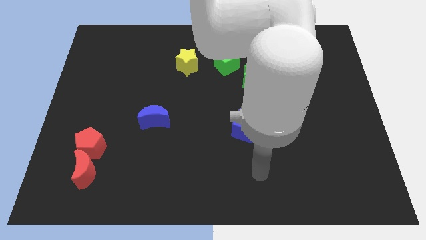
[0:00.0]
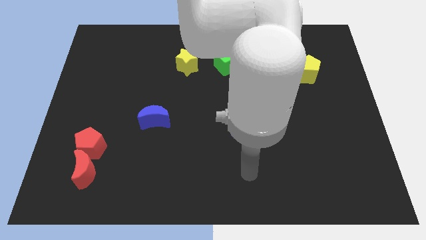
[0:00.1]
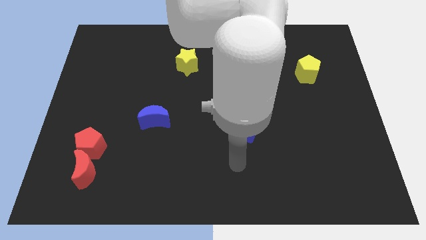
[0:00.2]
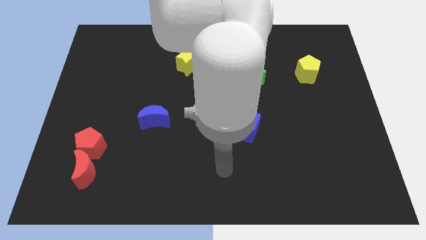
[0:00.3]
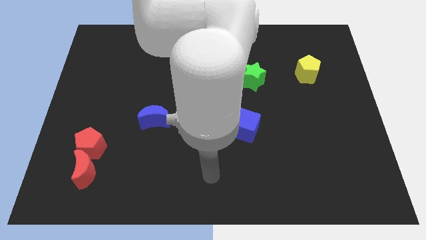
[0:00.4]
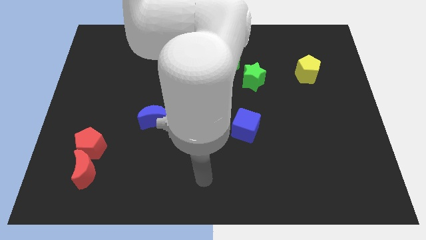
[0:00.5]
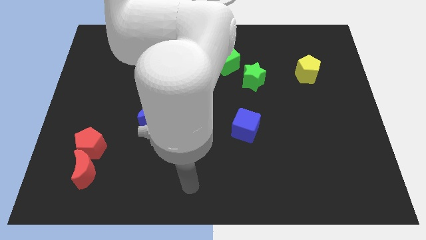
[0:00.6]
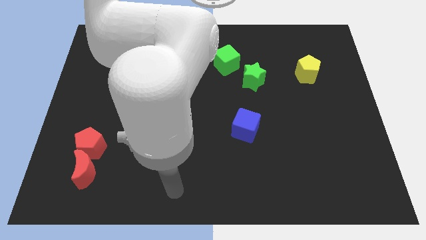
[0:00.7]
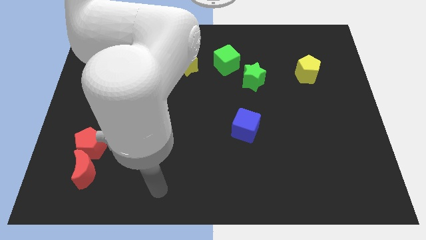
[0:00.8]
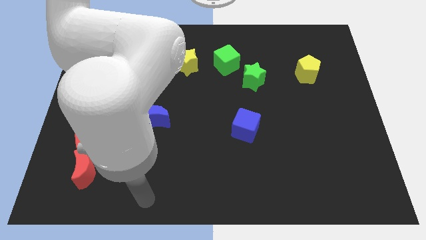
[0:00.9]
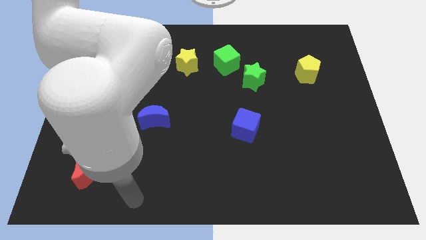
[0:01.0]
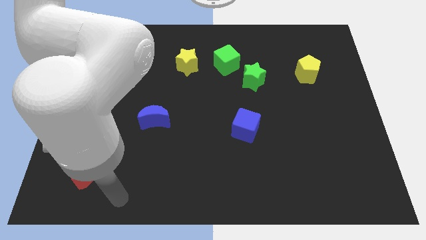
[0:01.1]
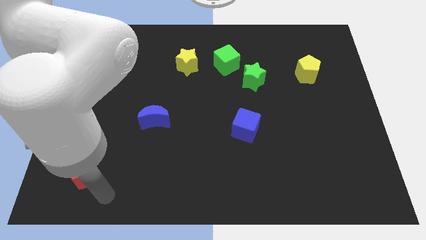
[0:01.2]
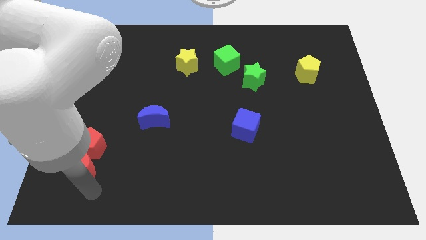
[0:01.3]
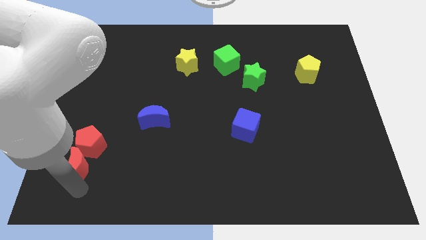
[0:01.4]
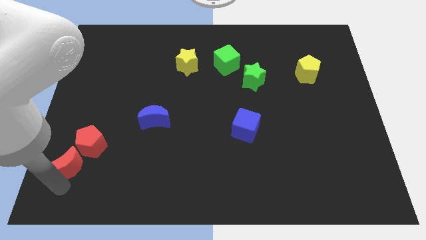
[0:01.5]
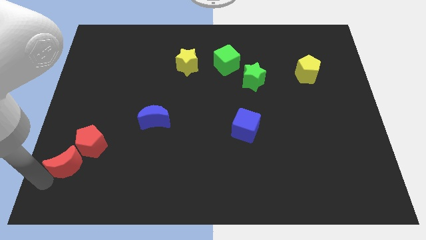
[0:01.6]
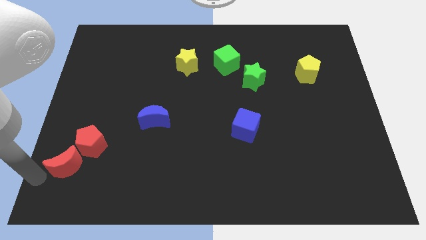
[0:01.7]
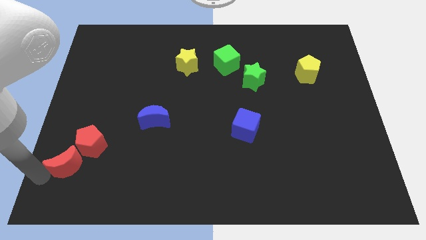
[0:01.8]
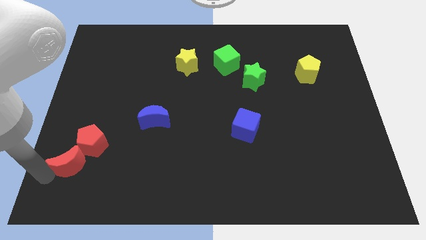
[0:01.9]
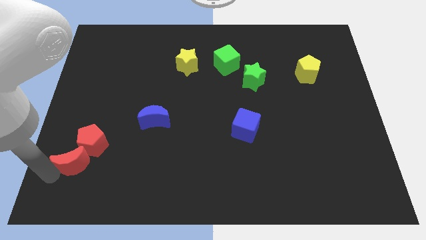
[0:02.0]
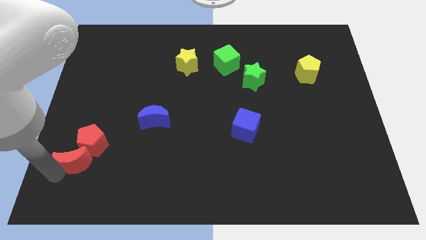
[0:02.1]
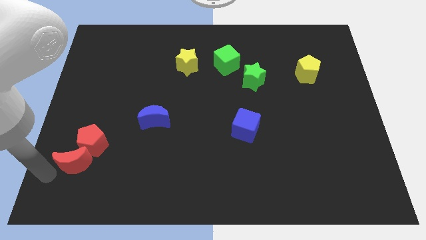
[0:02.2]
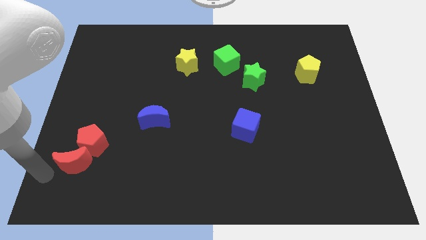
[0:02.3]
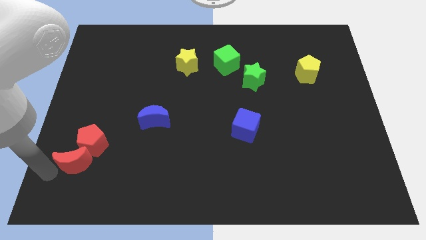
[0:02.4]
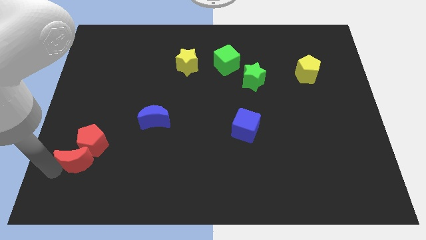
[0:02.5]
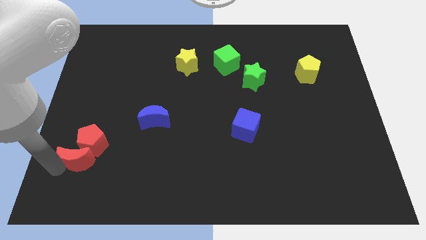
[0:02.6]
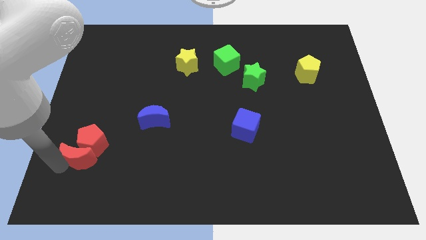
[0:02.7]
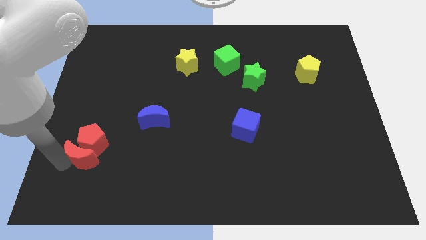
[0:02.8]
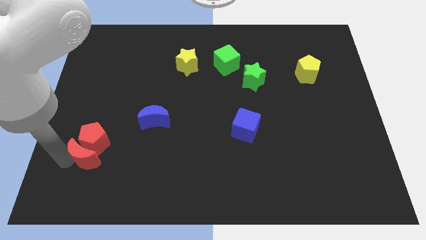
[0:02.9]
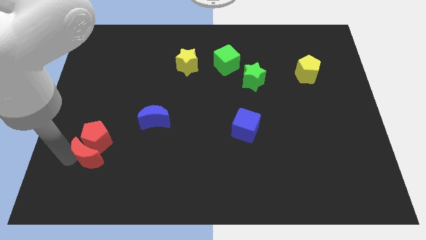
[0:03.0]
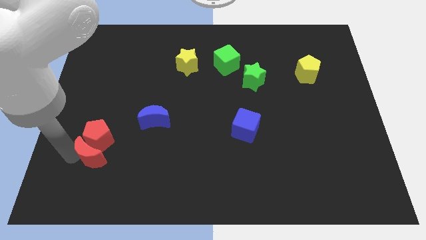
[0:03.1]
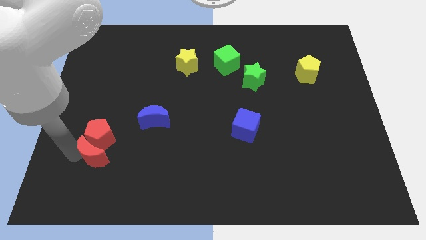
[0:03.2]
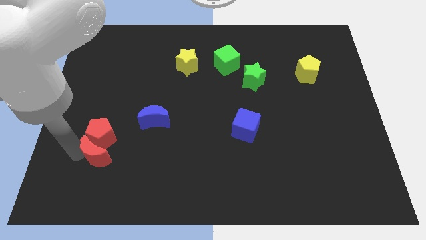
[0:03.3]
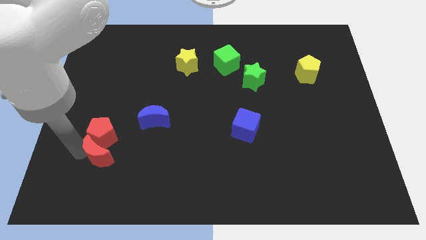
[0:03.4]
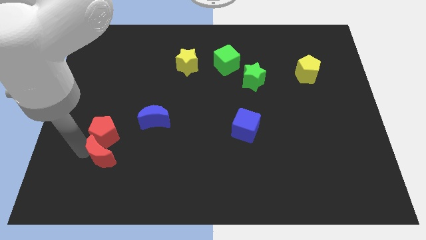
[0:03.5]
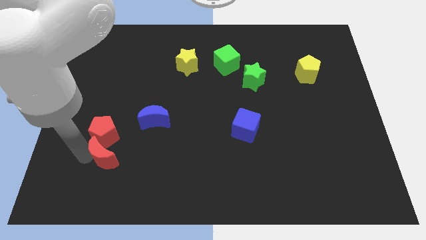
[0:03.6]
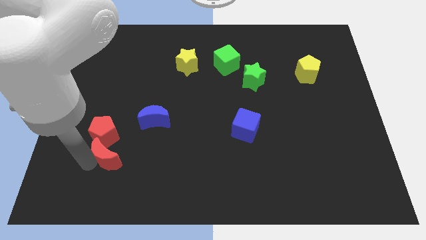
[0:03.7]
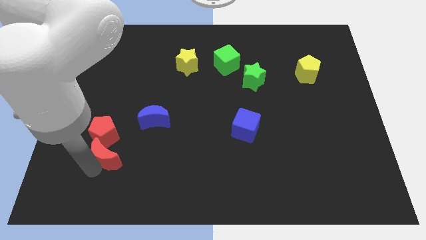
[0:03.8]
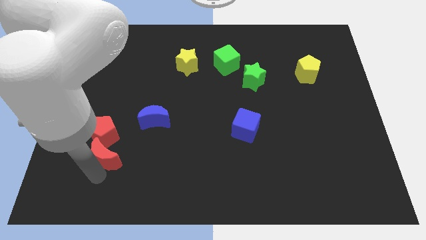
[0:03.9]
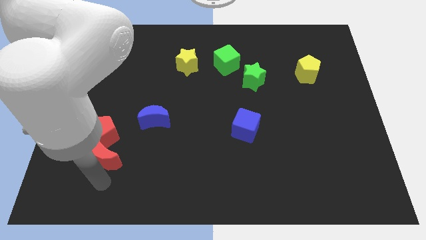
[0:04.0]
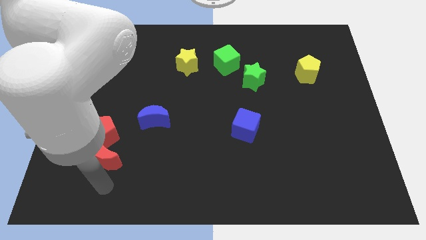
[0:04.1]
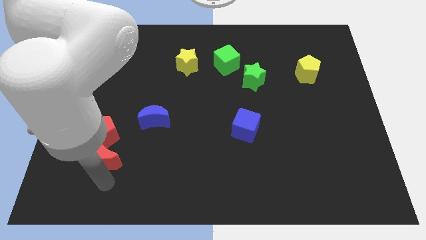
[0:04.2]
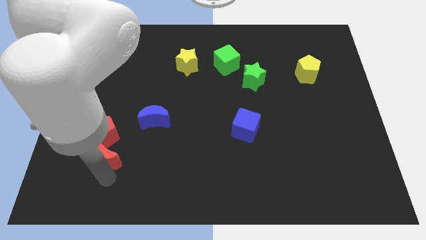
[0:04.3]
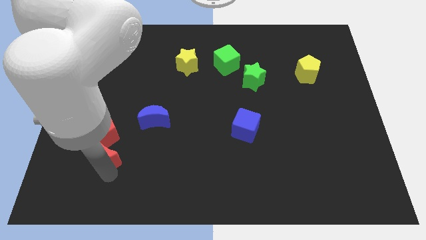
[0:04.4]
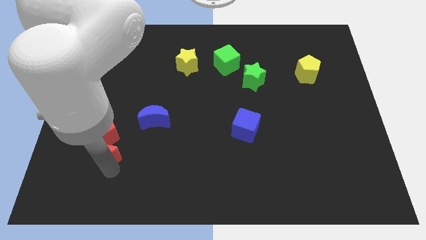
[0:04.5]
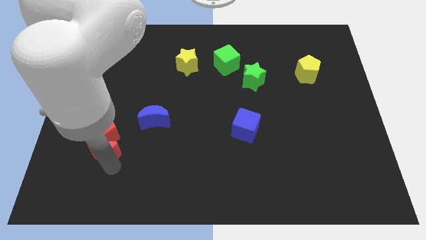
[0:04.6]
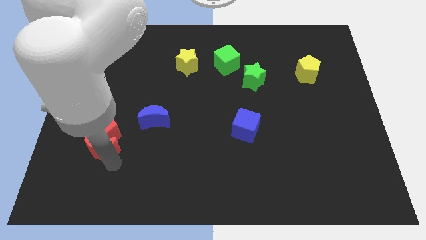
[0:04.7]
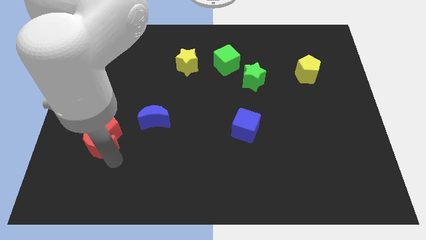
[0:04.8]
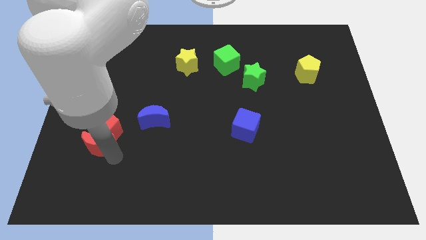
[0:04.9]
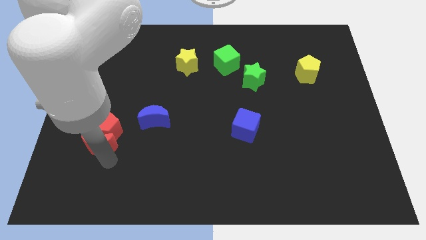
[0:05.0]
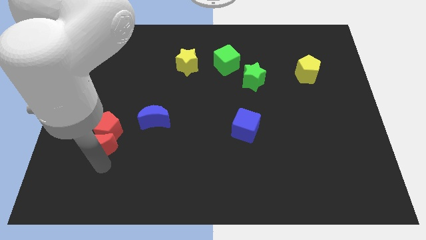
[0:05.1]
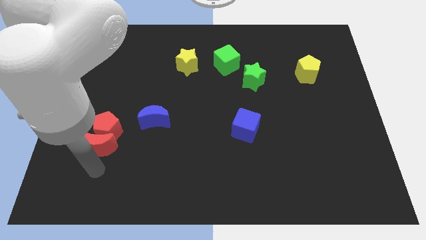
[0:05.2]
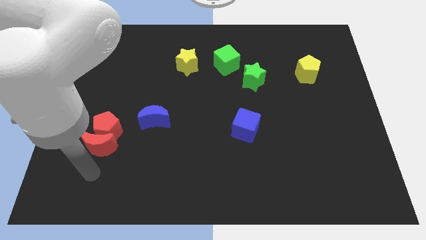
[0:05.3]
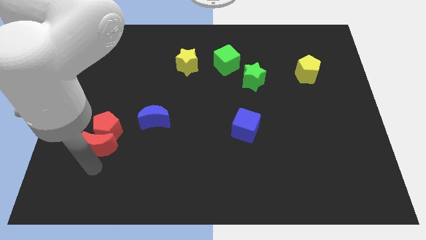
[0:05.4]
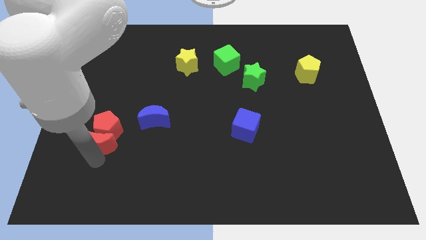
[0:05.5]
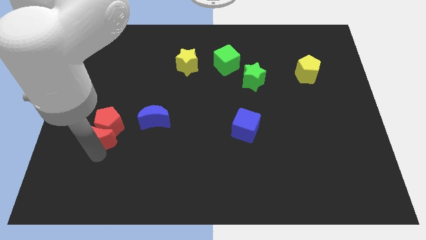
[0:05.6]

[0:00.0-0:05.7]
slightly push the red moon up

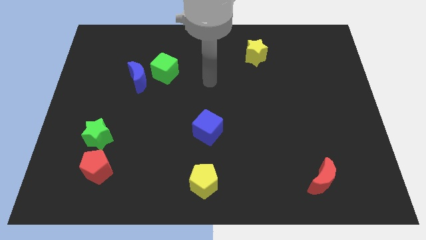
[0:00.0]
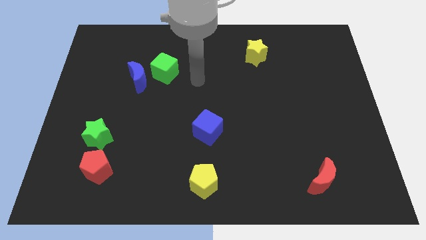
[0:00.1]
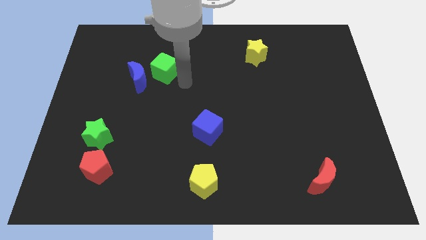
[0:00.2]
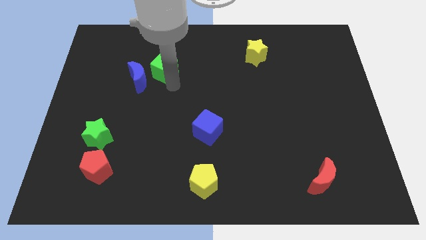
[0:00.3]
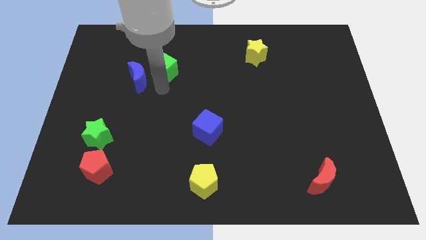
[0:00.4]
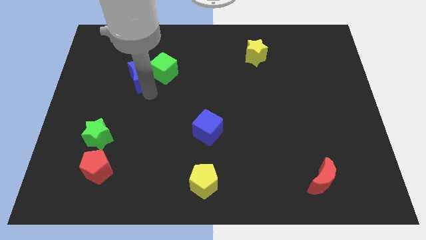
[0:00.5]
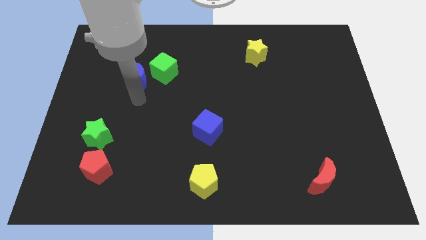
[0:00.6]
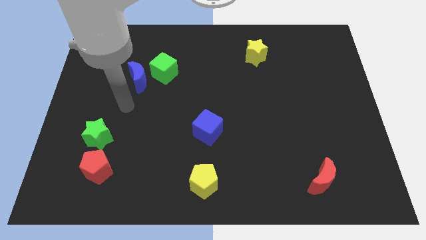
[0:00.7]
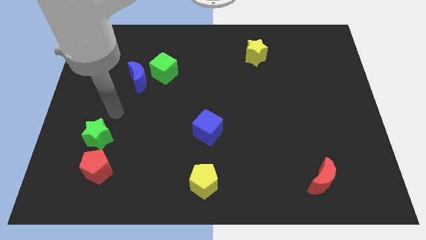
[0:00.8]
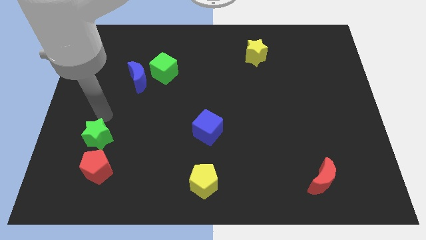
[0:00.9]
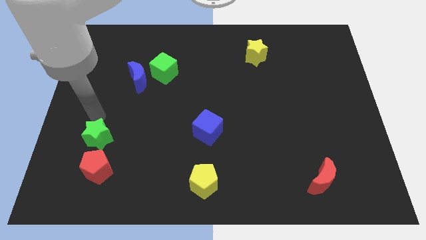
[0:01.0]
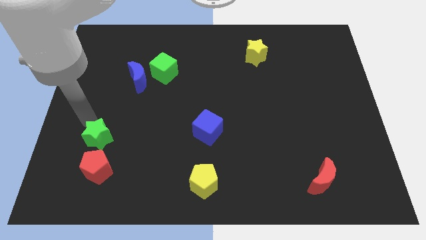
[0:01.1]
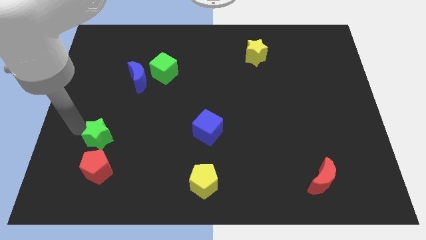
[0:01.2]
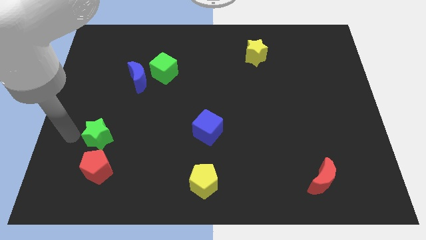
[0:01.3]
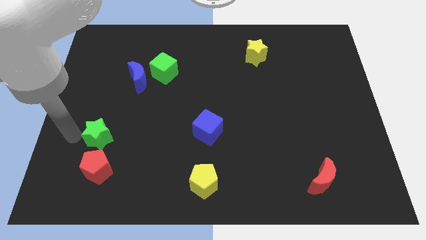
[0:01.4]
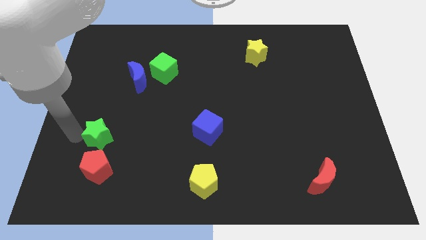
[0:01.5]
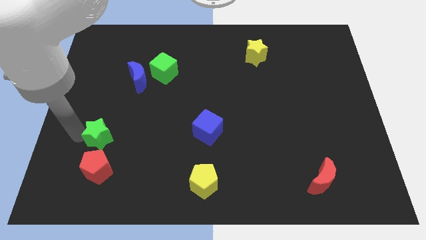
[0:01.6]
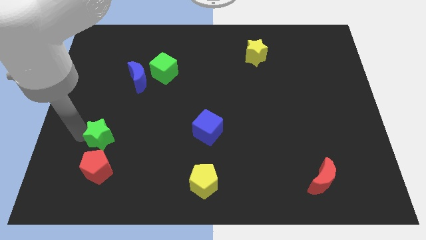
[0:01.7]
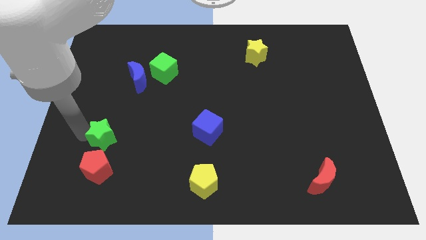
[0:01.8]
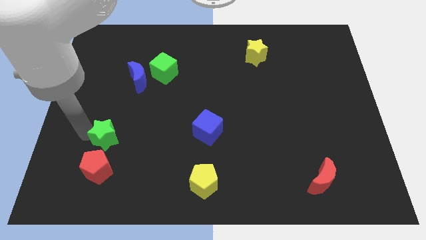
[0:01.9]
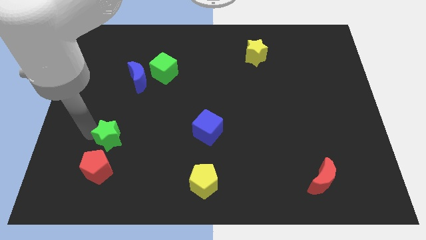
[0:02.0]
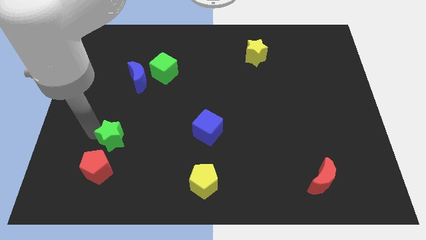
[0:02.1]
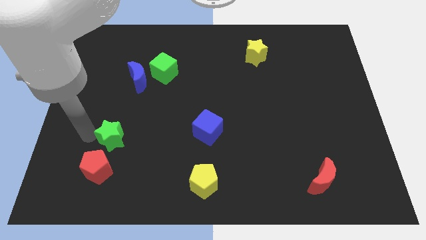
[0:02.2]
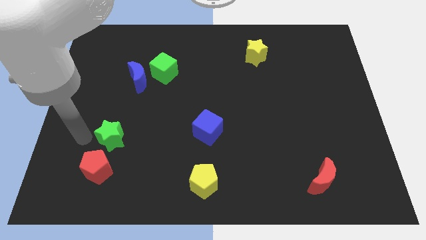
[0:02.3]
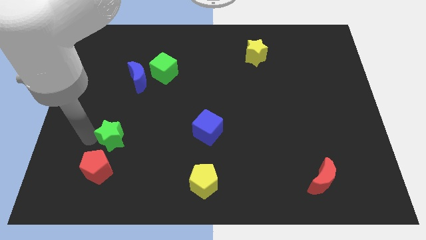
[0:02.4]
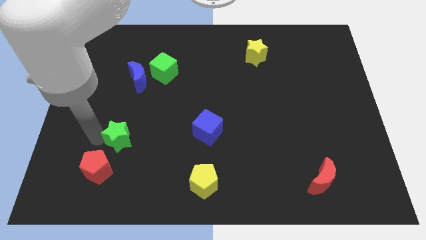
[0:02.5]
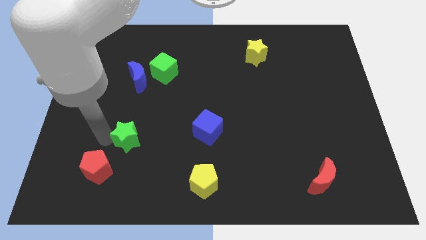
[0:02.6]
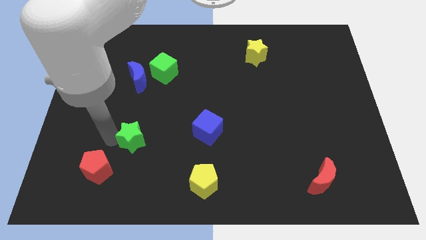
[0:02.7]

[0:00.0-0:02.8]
move the green star a little to the right
